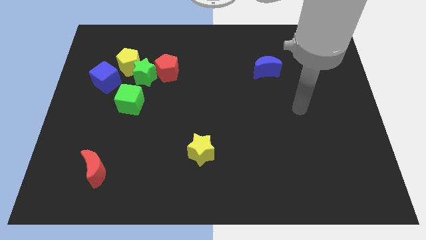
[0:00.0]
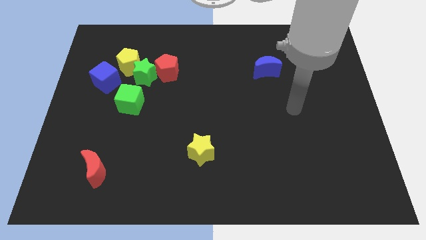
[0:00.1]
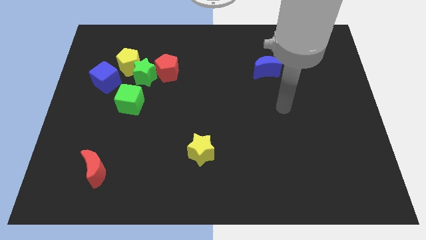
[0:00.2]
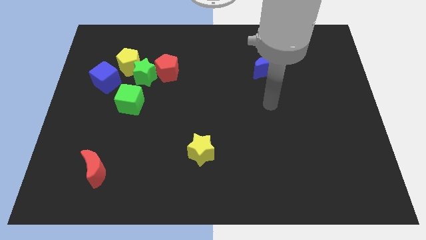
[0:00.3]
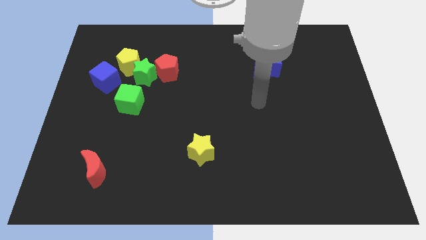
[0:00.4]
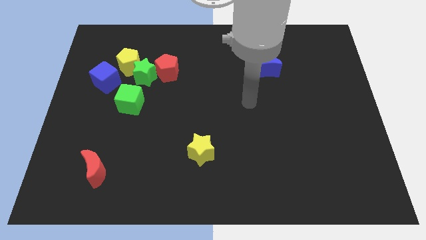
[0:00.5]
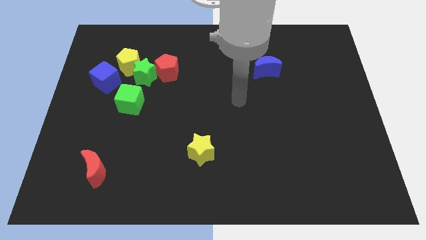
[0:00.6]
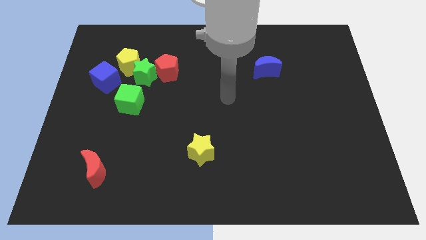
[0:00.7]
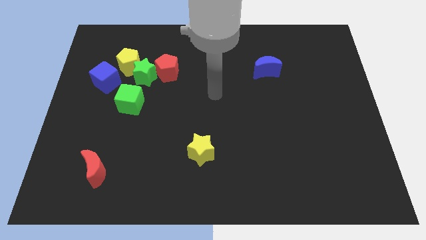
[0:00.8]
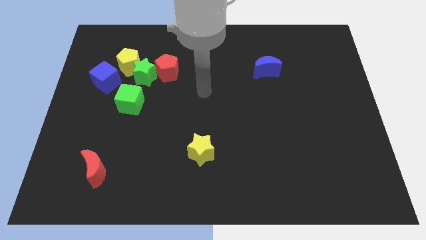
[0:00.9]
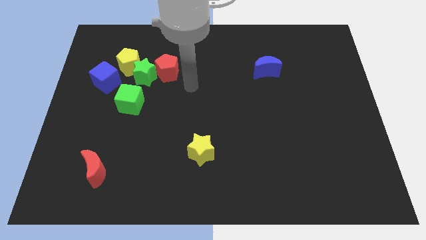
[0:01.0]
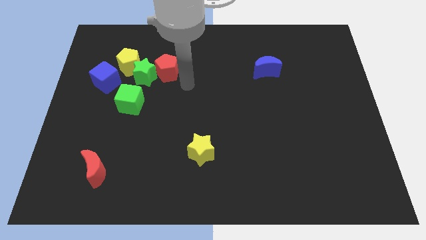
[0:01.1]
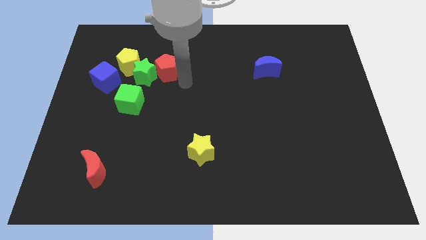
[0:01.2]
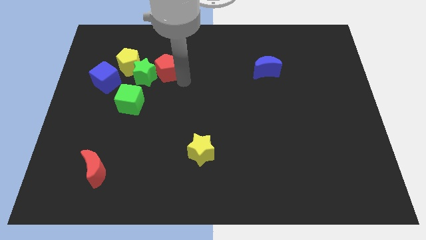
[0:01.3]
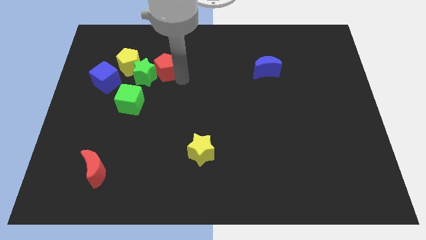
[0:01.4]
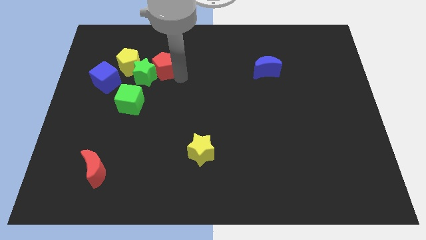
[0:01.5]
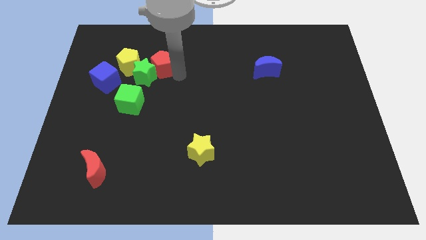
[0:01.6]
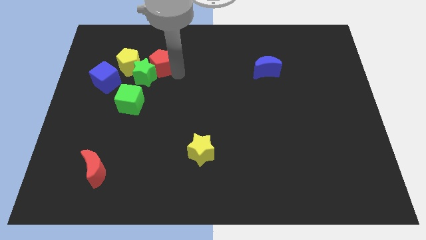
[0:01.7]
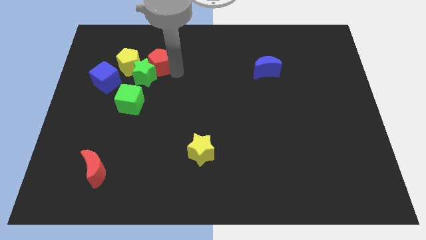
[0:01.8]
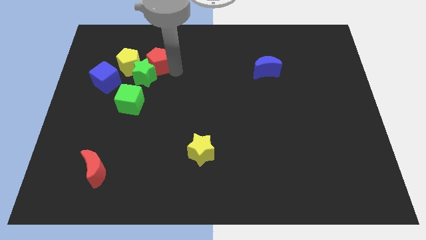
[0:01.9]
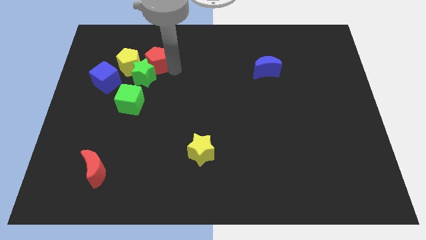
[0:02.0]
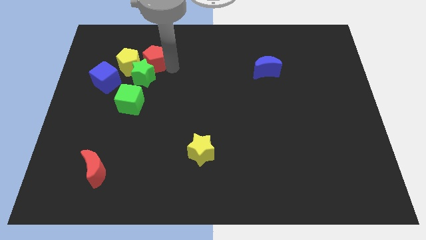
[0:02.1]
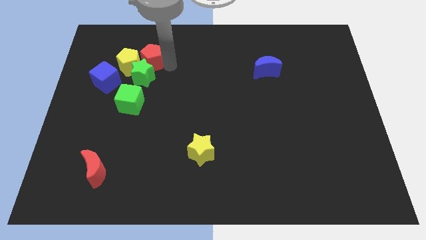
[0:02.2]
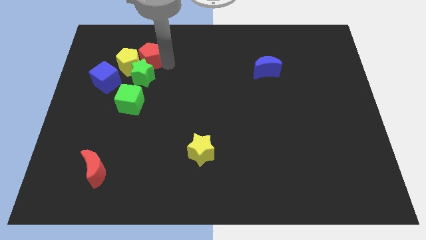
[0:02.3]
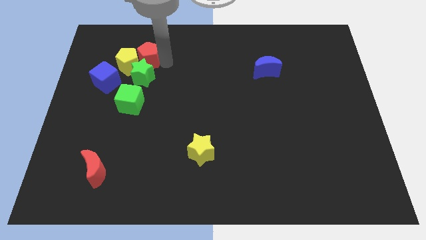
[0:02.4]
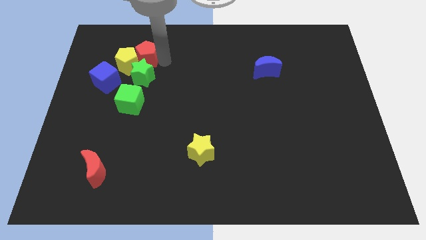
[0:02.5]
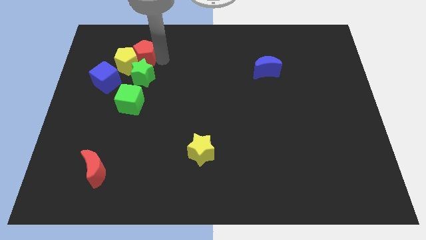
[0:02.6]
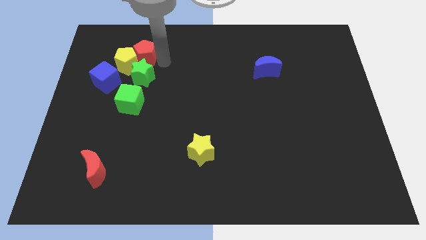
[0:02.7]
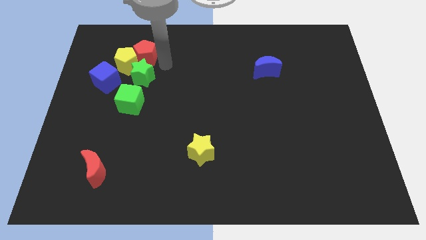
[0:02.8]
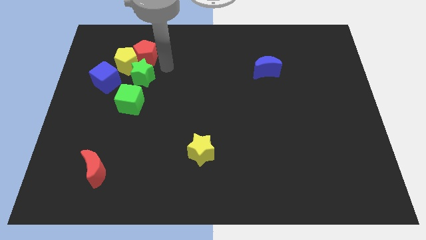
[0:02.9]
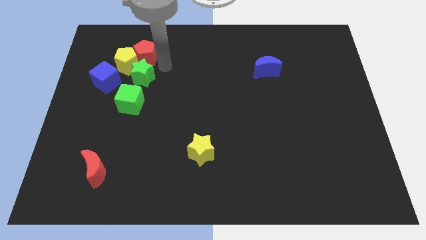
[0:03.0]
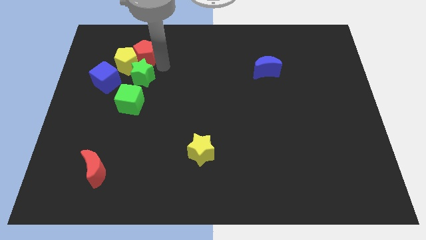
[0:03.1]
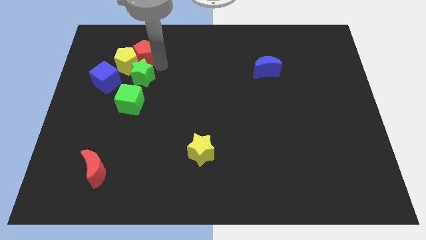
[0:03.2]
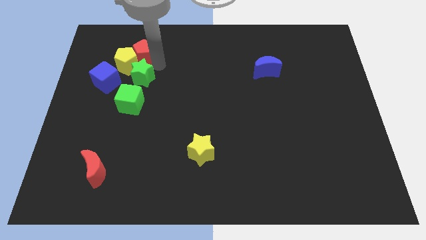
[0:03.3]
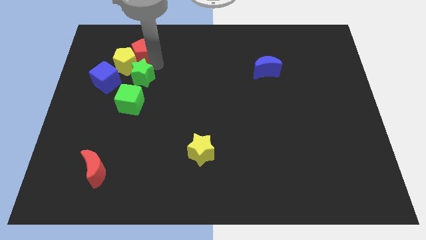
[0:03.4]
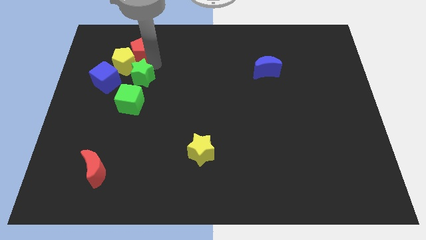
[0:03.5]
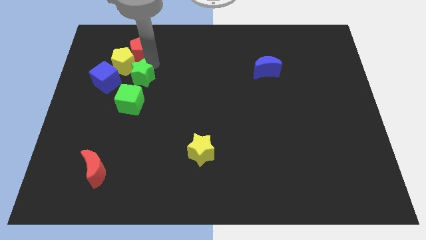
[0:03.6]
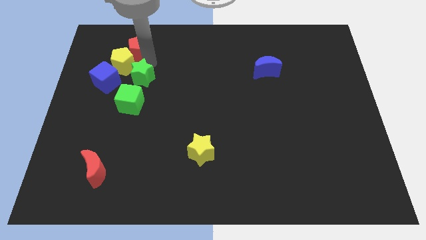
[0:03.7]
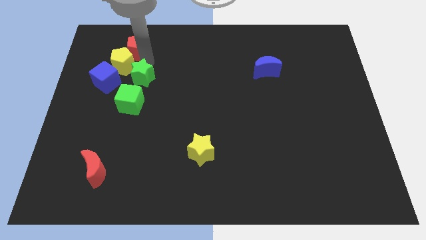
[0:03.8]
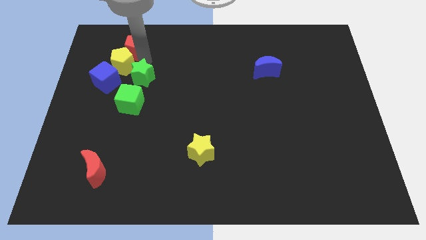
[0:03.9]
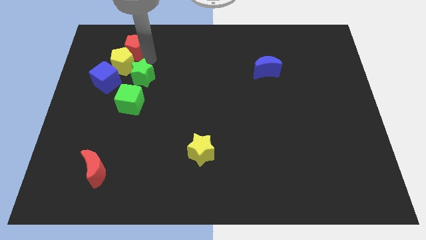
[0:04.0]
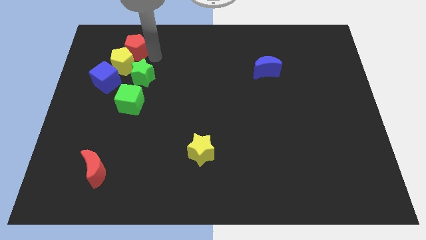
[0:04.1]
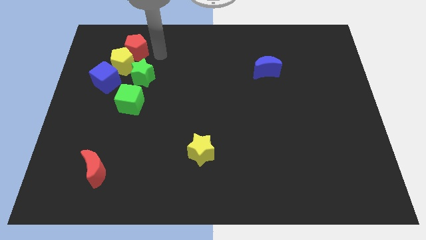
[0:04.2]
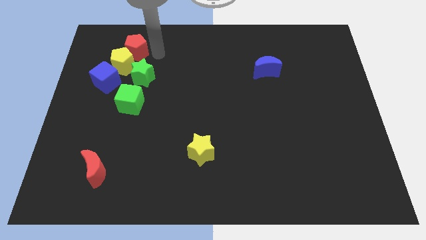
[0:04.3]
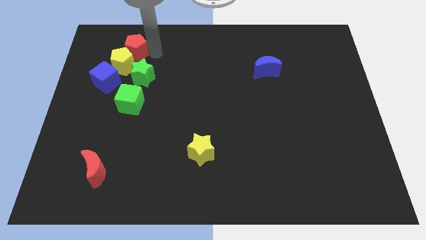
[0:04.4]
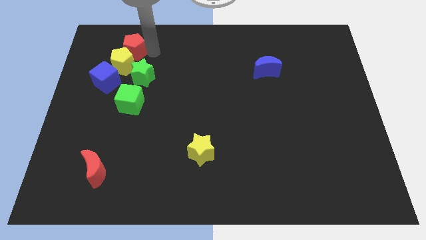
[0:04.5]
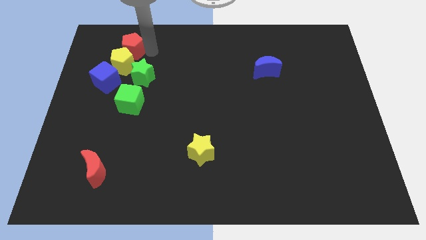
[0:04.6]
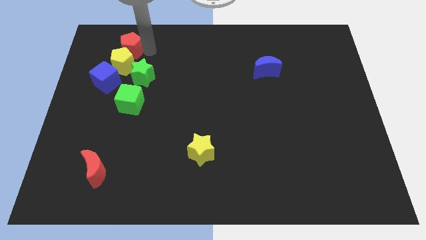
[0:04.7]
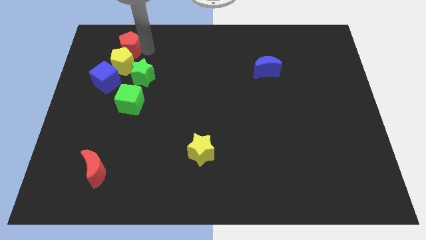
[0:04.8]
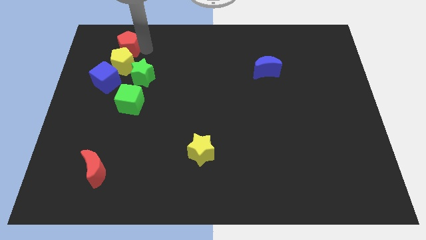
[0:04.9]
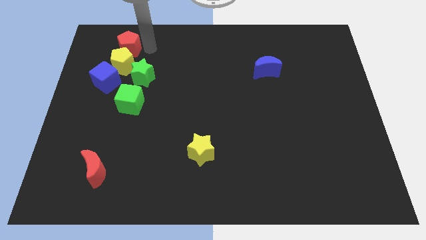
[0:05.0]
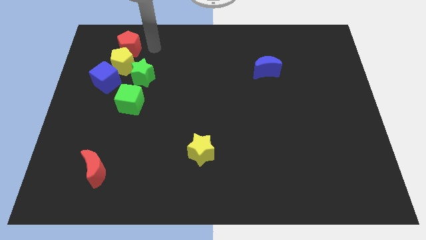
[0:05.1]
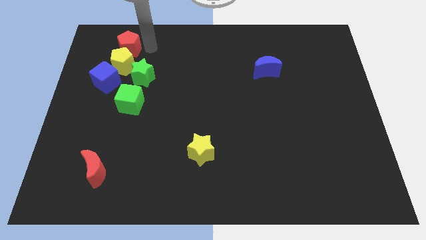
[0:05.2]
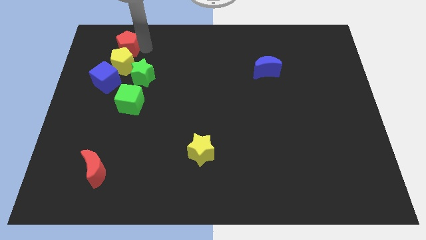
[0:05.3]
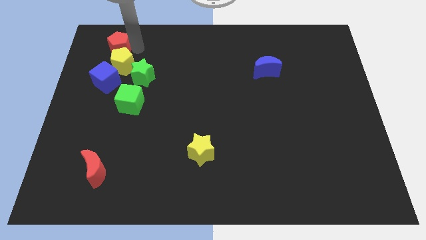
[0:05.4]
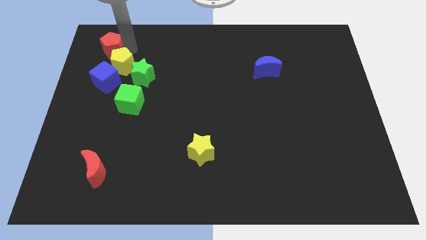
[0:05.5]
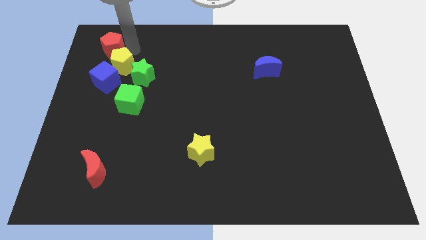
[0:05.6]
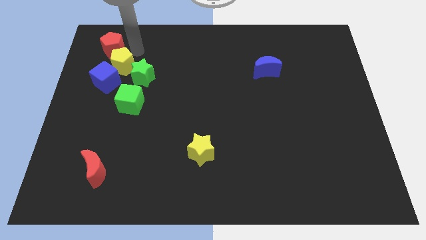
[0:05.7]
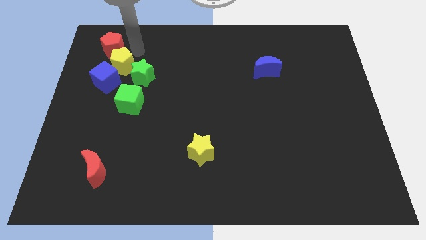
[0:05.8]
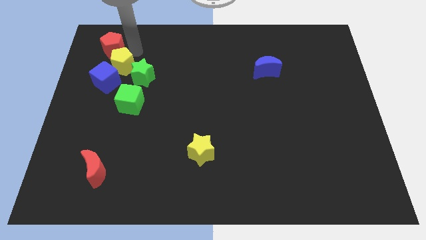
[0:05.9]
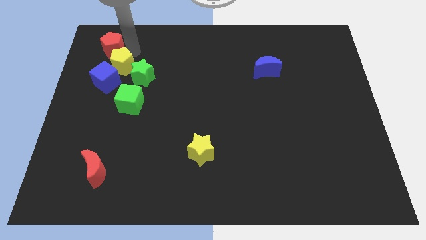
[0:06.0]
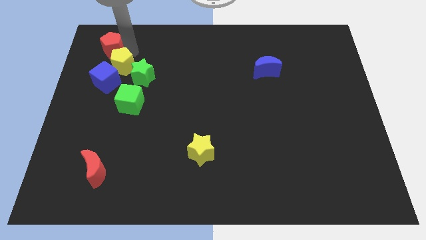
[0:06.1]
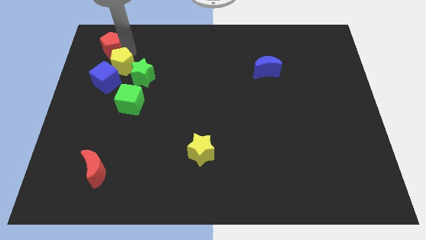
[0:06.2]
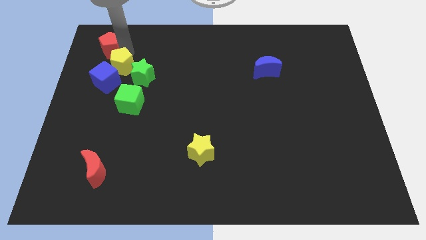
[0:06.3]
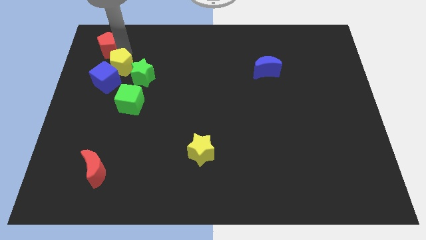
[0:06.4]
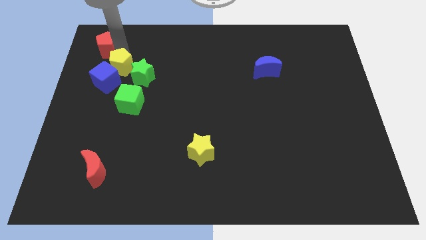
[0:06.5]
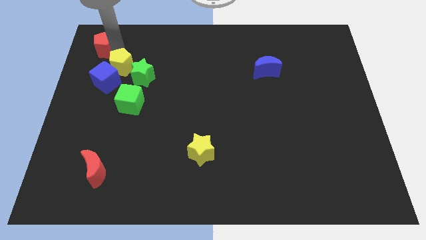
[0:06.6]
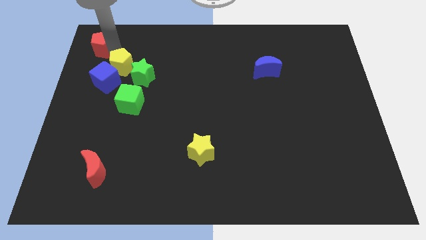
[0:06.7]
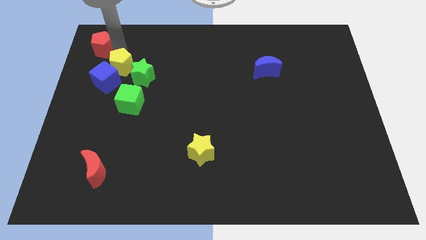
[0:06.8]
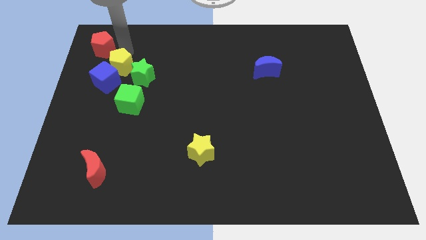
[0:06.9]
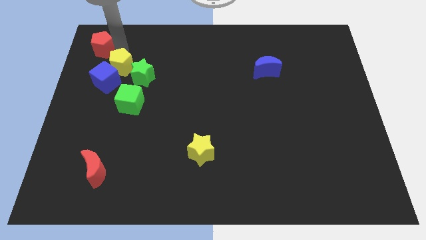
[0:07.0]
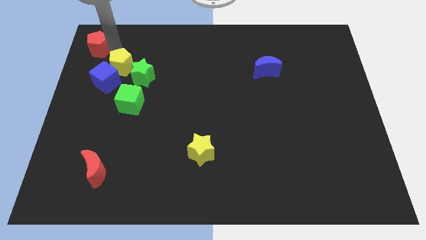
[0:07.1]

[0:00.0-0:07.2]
slide the red pentagon to the top left corner

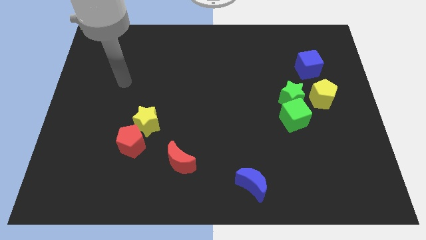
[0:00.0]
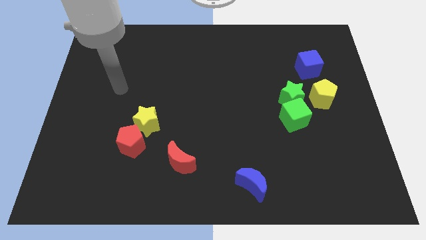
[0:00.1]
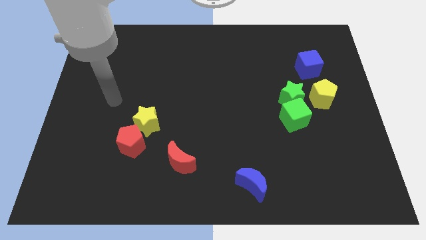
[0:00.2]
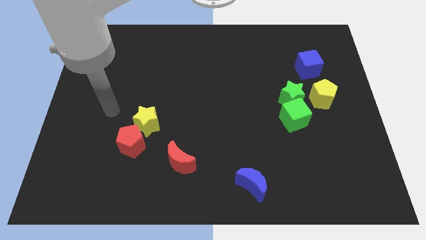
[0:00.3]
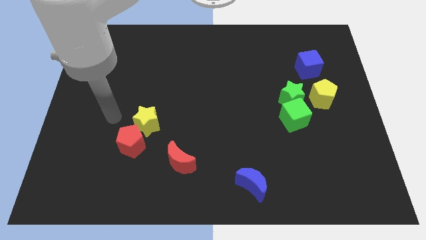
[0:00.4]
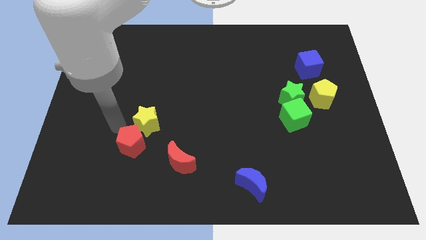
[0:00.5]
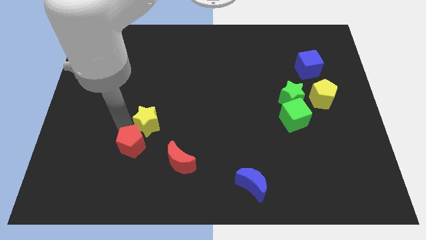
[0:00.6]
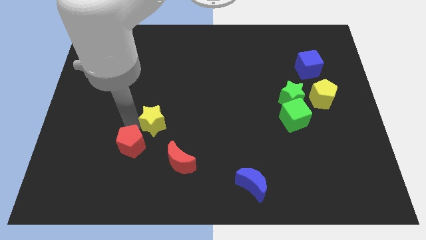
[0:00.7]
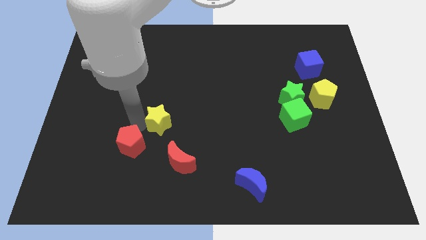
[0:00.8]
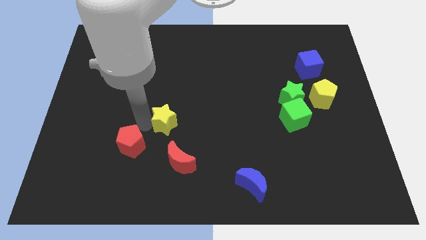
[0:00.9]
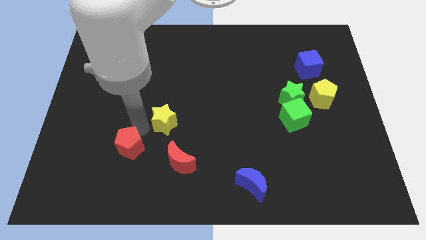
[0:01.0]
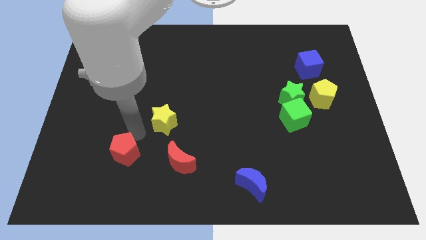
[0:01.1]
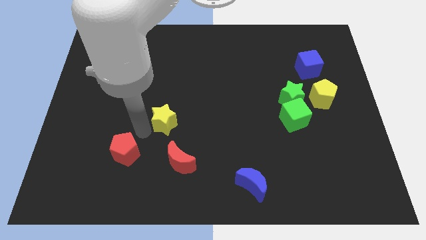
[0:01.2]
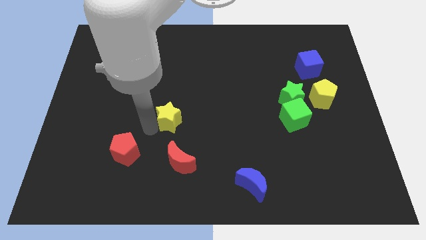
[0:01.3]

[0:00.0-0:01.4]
move the yellow star to the middle
